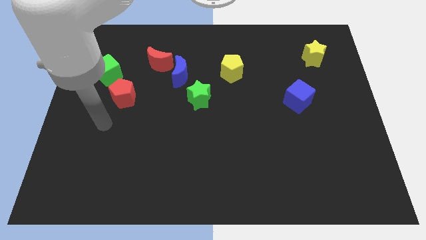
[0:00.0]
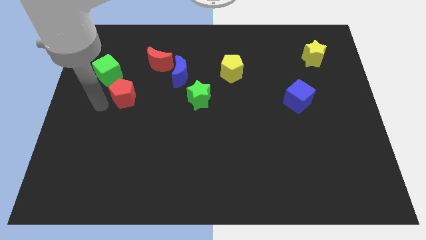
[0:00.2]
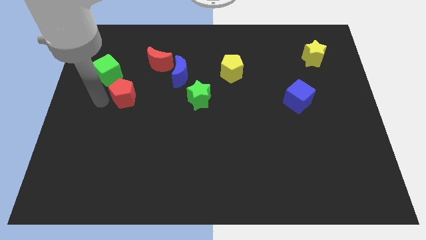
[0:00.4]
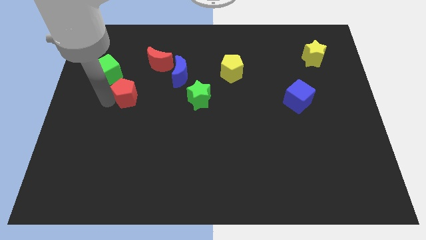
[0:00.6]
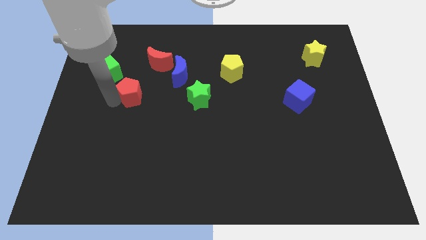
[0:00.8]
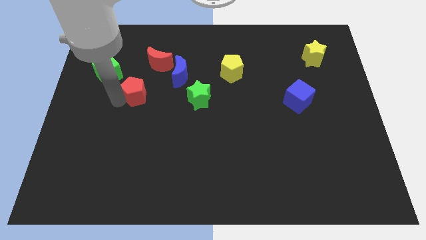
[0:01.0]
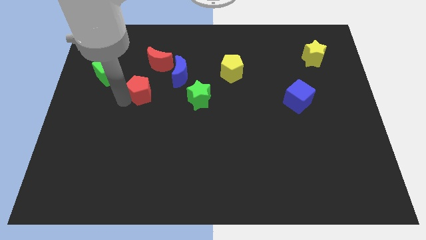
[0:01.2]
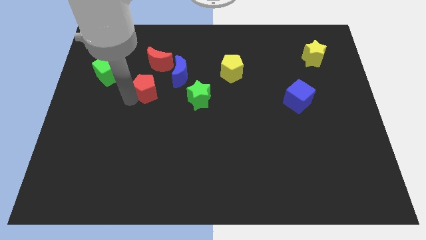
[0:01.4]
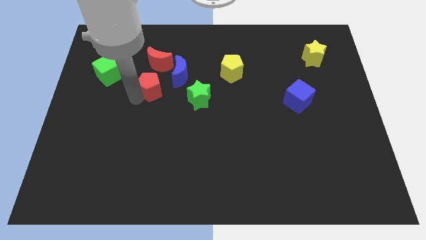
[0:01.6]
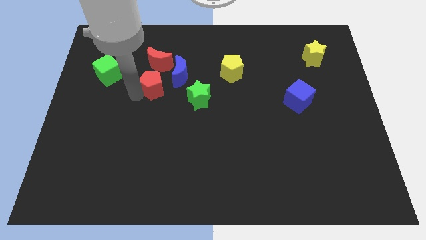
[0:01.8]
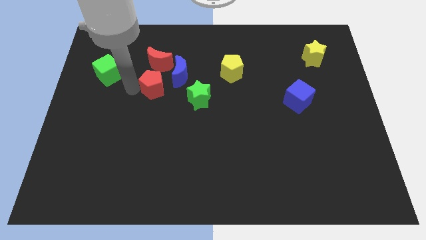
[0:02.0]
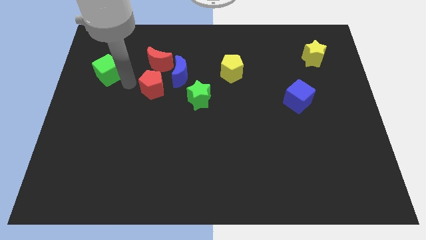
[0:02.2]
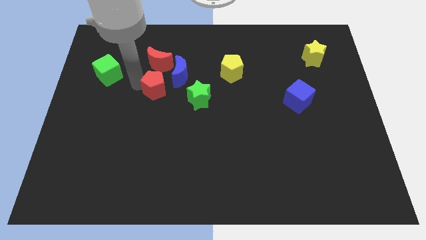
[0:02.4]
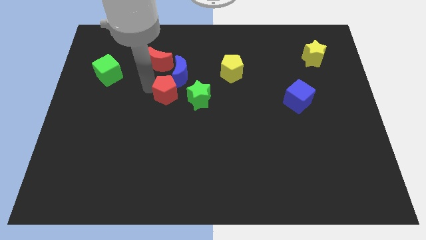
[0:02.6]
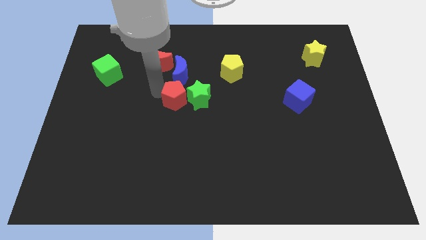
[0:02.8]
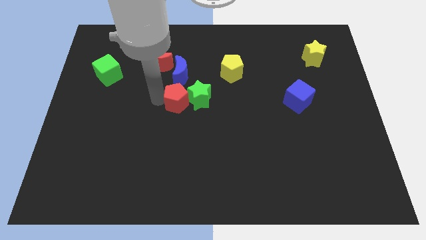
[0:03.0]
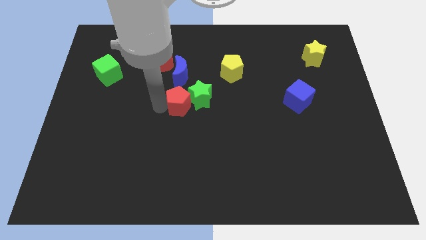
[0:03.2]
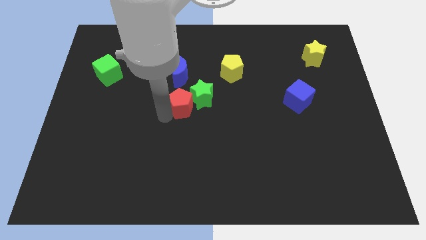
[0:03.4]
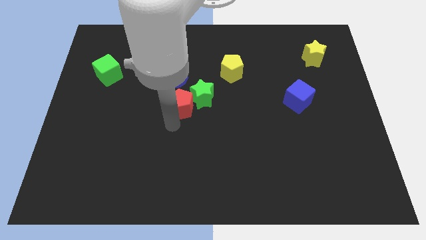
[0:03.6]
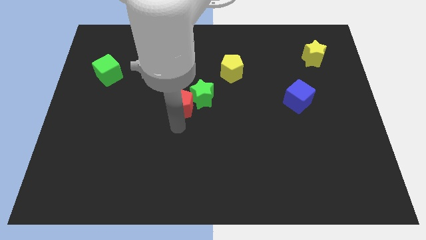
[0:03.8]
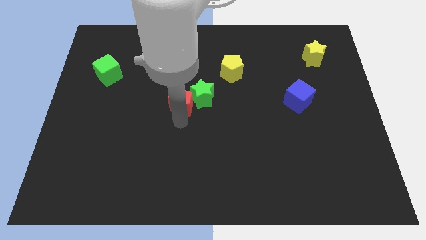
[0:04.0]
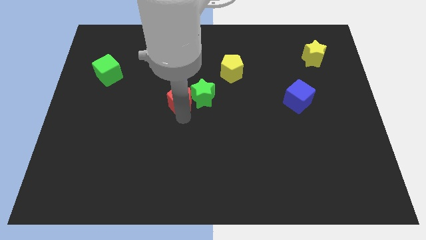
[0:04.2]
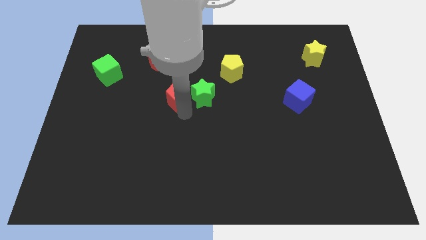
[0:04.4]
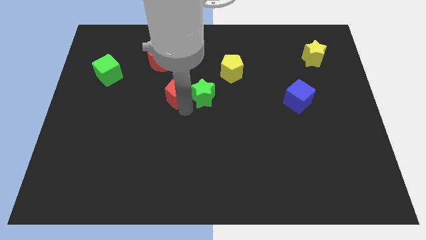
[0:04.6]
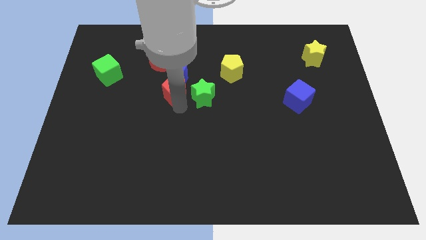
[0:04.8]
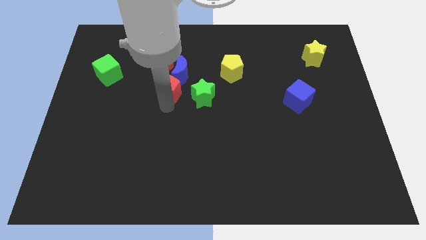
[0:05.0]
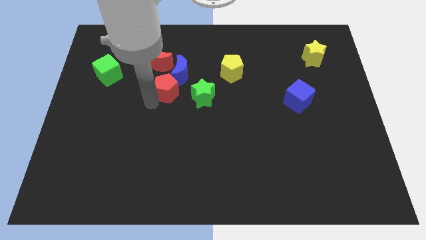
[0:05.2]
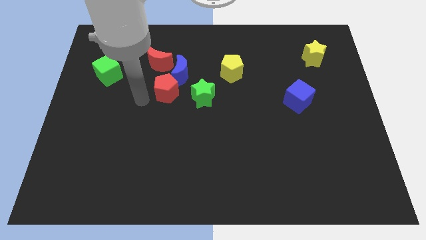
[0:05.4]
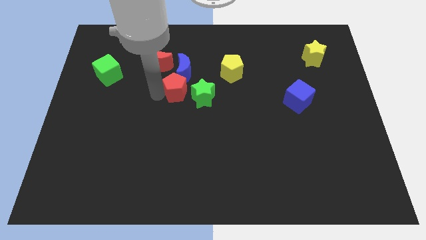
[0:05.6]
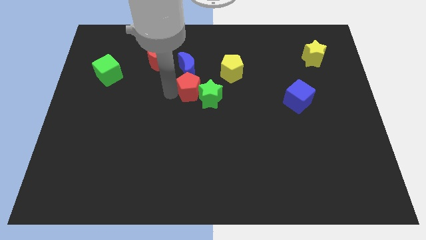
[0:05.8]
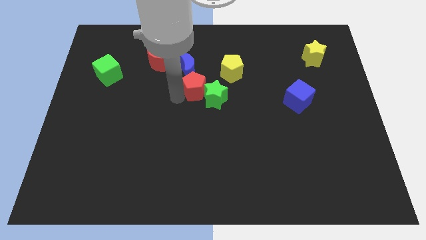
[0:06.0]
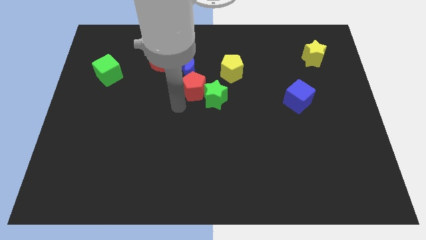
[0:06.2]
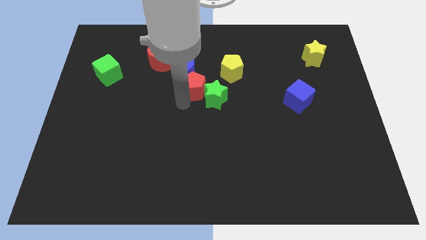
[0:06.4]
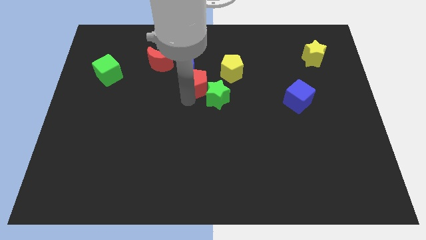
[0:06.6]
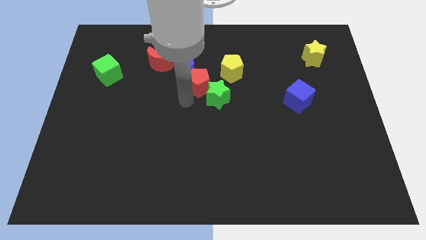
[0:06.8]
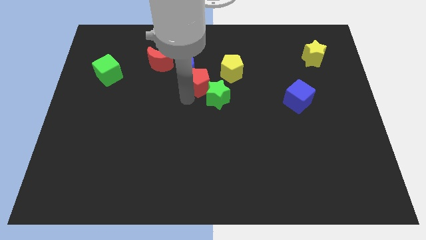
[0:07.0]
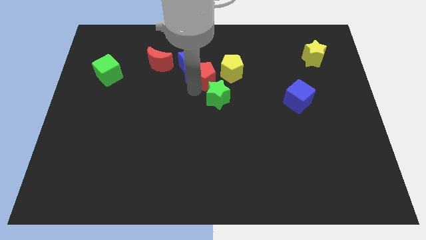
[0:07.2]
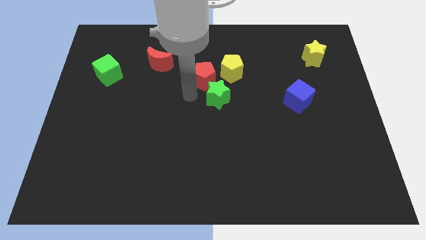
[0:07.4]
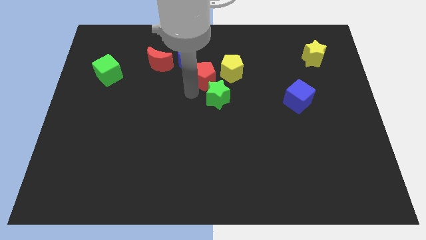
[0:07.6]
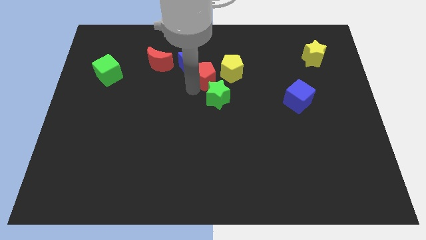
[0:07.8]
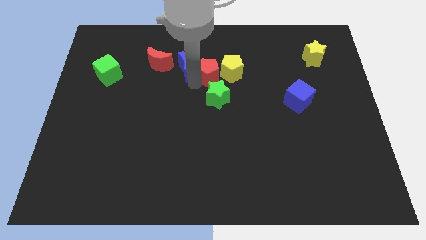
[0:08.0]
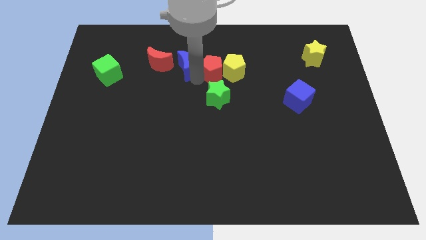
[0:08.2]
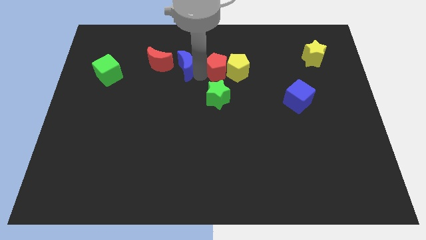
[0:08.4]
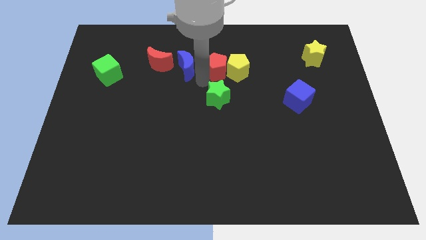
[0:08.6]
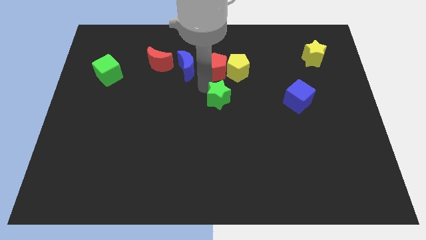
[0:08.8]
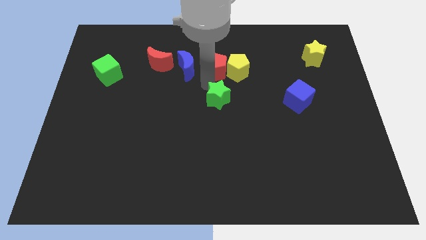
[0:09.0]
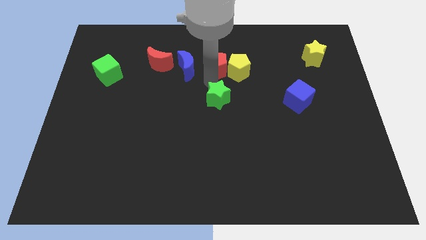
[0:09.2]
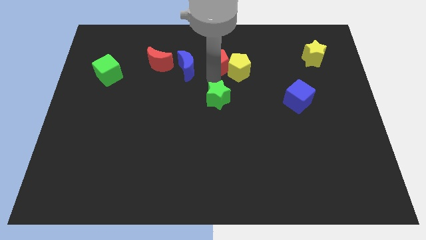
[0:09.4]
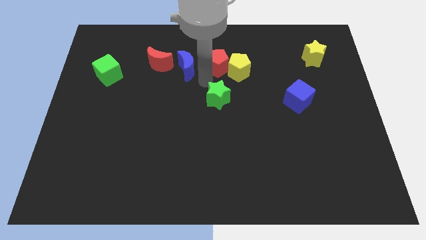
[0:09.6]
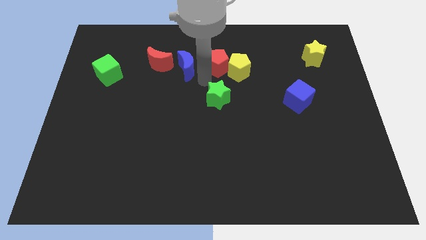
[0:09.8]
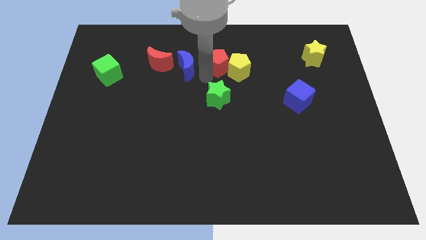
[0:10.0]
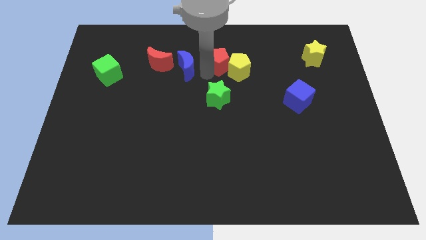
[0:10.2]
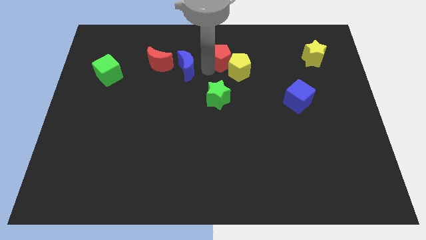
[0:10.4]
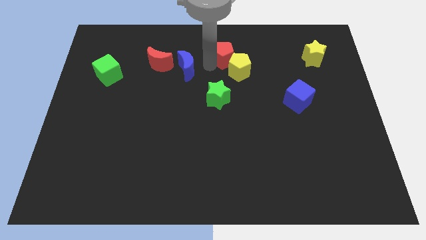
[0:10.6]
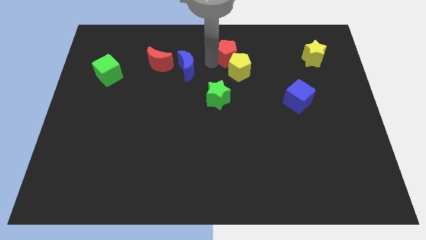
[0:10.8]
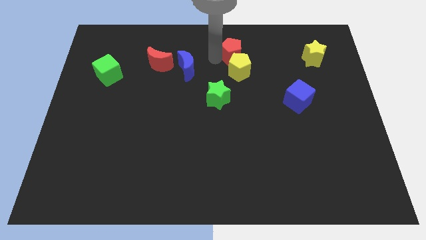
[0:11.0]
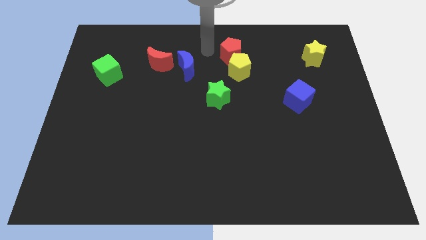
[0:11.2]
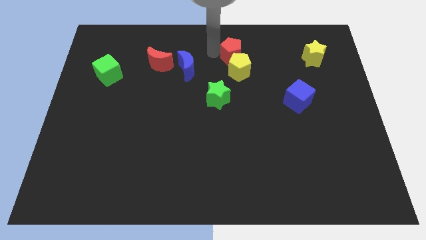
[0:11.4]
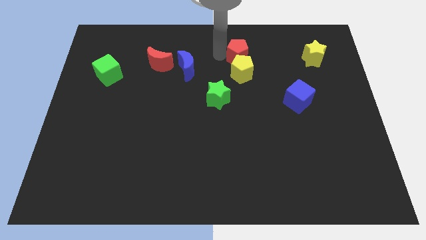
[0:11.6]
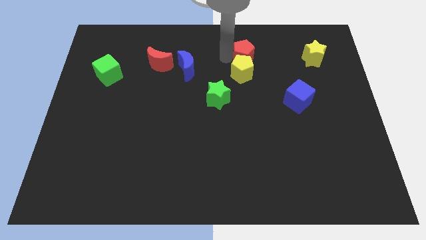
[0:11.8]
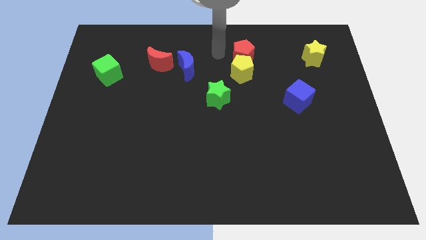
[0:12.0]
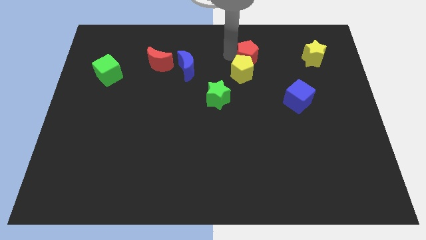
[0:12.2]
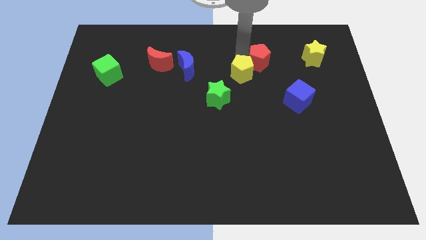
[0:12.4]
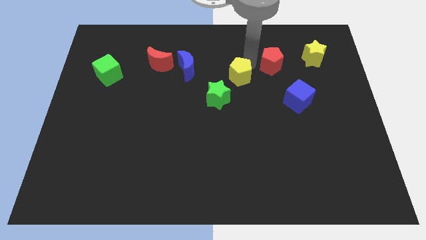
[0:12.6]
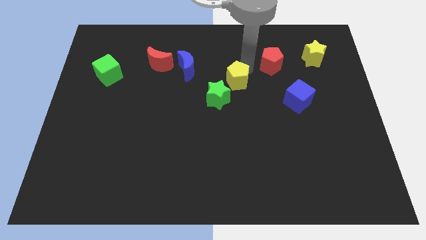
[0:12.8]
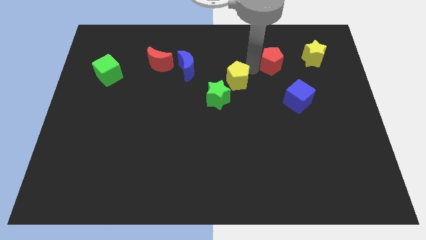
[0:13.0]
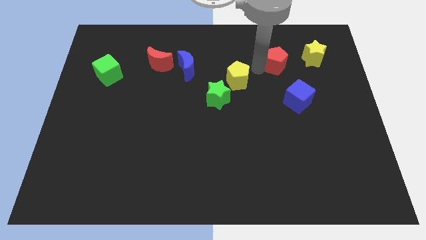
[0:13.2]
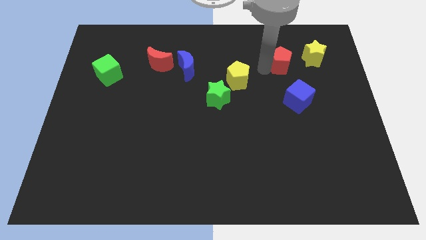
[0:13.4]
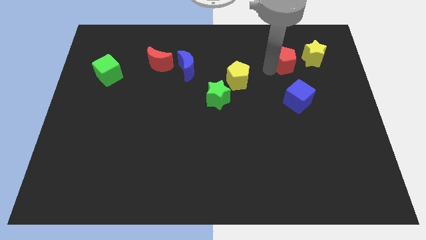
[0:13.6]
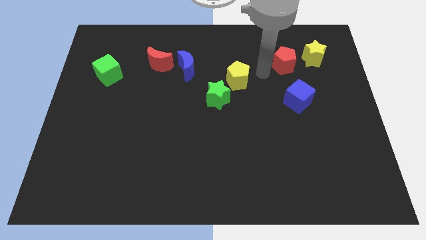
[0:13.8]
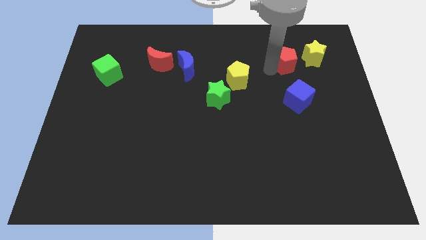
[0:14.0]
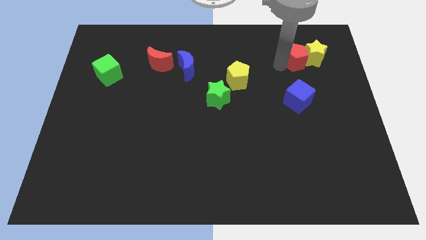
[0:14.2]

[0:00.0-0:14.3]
push the red pentagon to the yellow star
